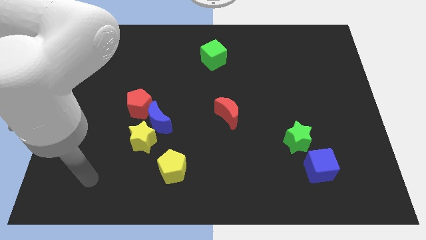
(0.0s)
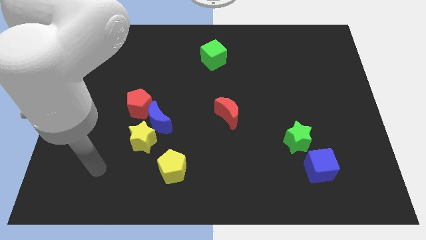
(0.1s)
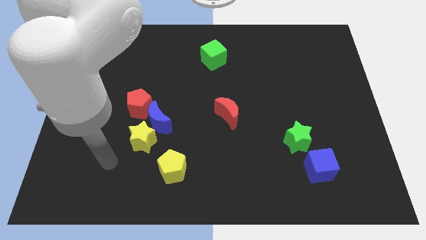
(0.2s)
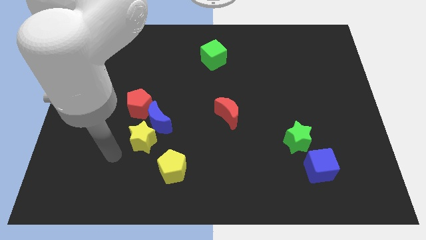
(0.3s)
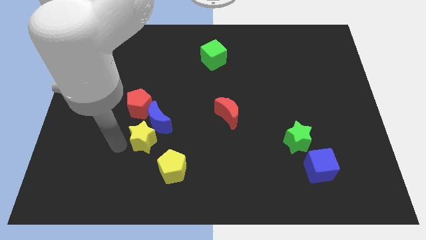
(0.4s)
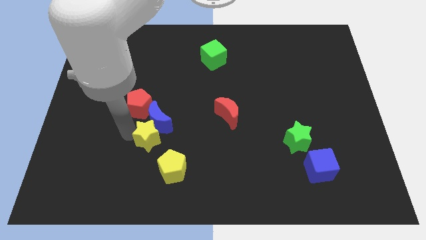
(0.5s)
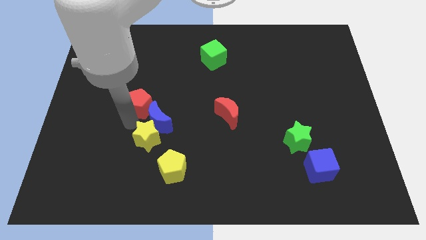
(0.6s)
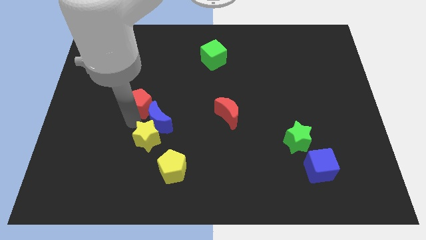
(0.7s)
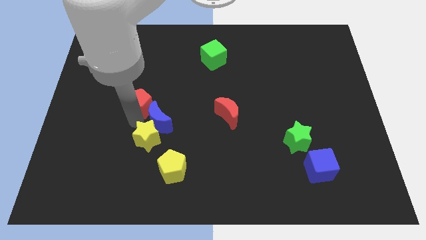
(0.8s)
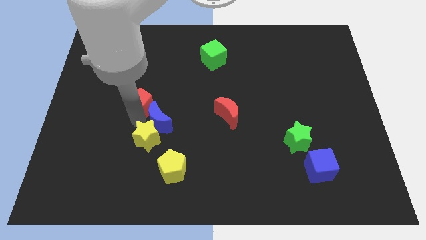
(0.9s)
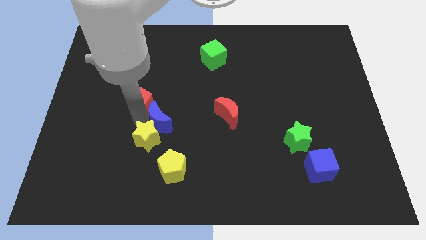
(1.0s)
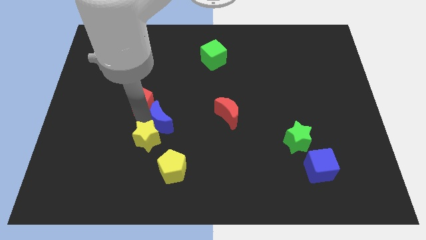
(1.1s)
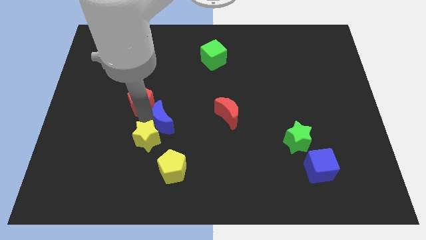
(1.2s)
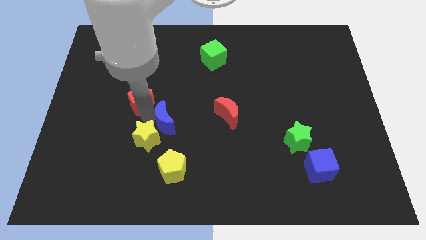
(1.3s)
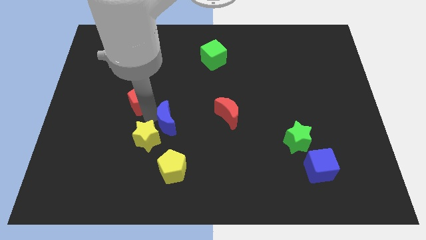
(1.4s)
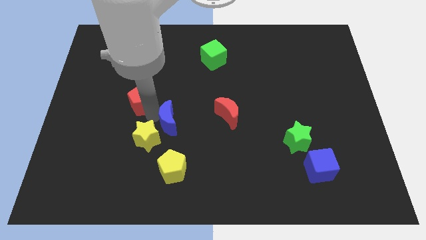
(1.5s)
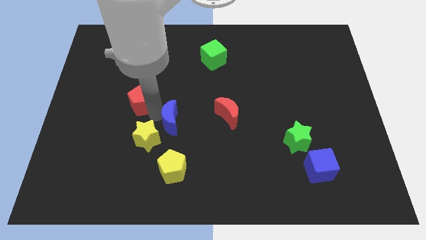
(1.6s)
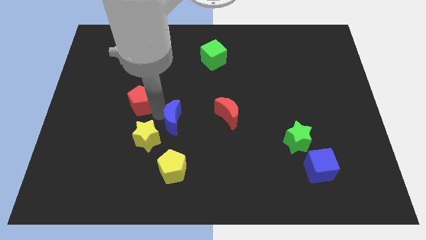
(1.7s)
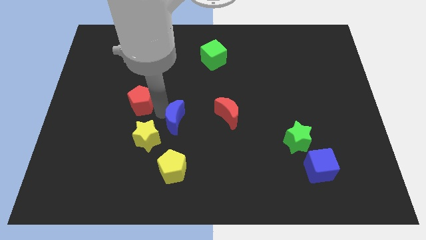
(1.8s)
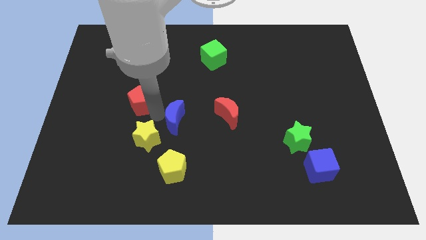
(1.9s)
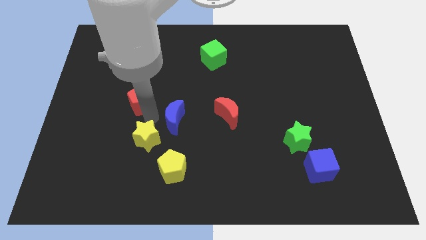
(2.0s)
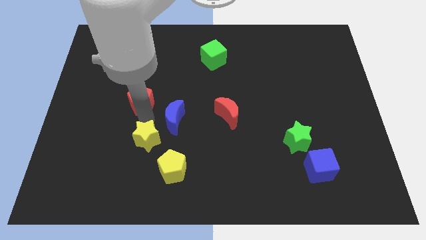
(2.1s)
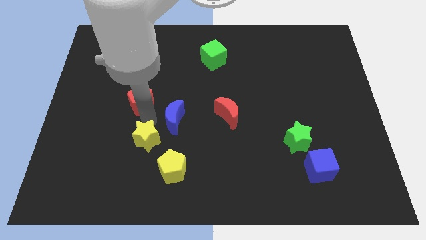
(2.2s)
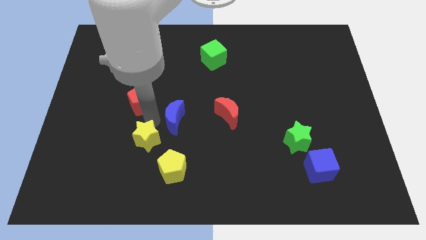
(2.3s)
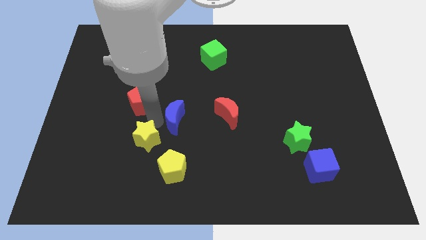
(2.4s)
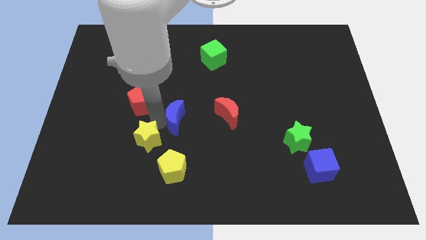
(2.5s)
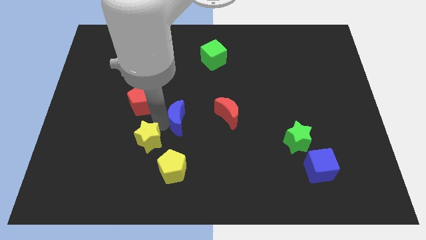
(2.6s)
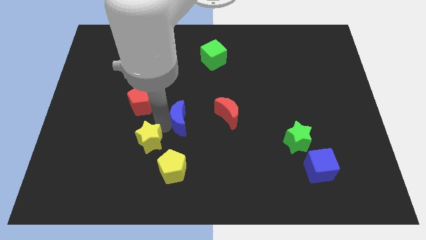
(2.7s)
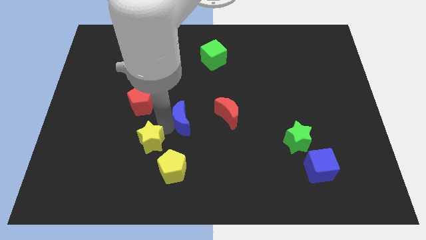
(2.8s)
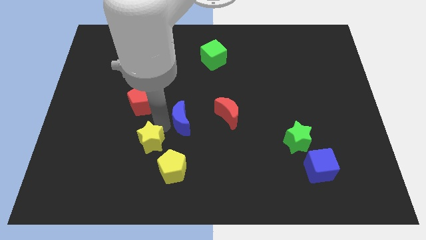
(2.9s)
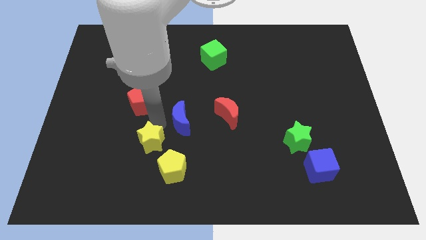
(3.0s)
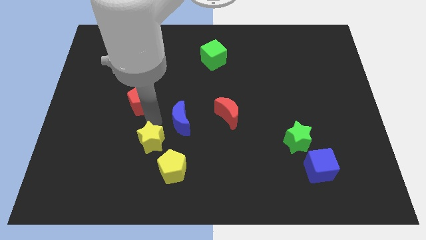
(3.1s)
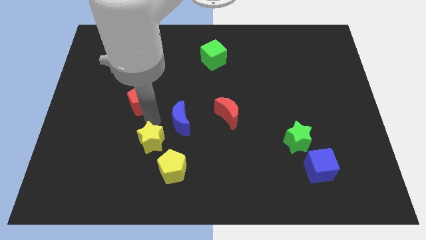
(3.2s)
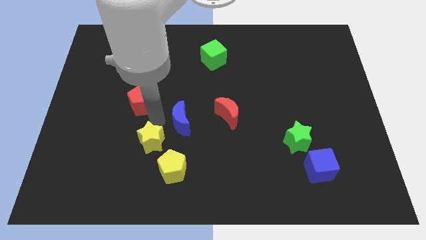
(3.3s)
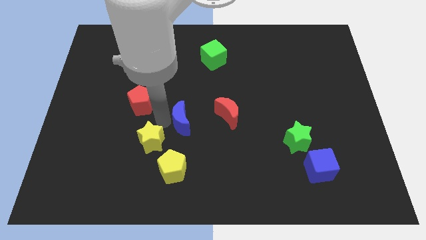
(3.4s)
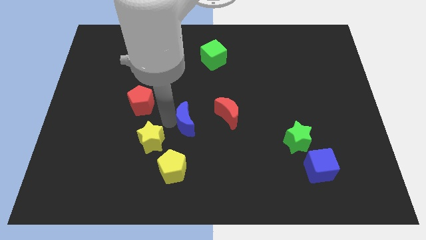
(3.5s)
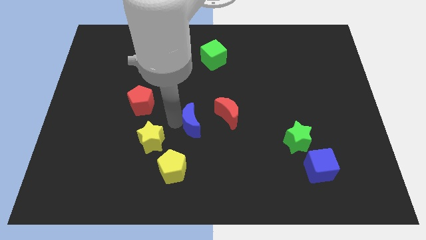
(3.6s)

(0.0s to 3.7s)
move the blue moon away from the yellow star and red pentagon

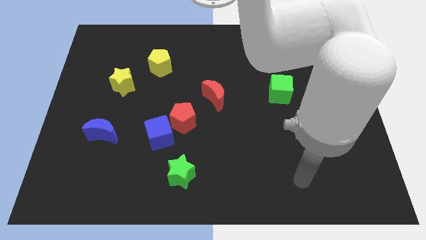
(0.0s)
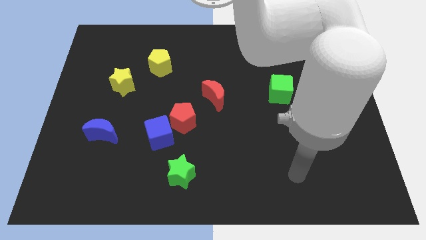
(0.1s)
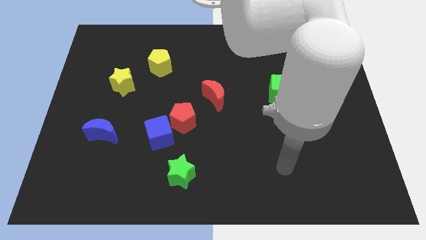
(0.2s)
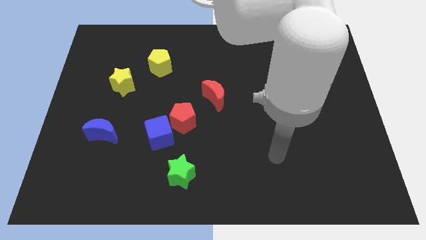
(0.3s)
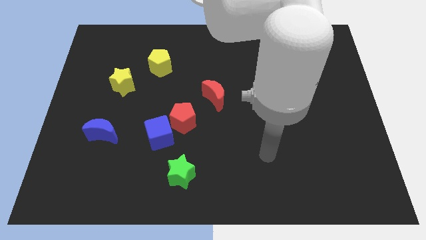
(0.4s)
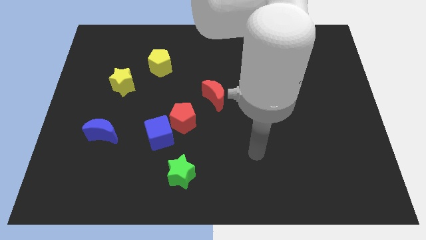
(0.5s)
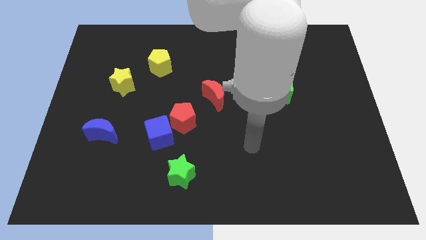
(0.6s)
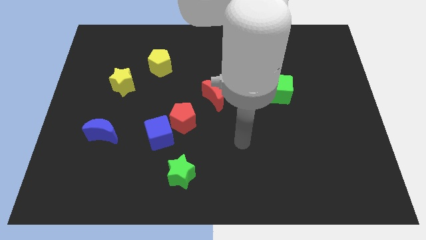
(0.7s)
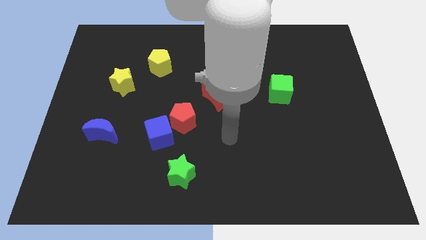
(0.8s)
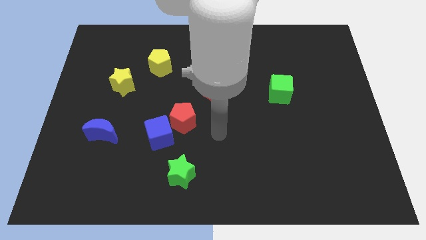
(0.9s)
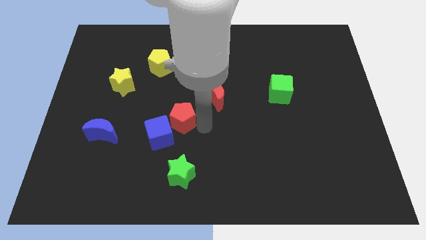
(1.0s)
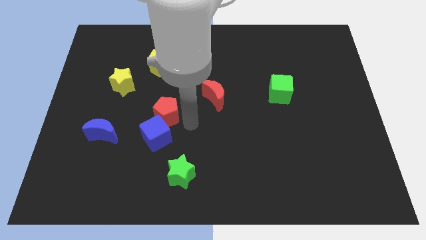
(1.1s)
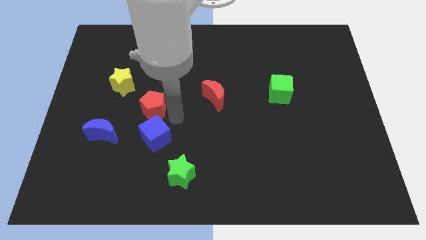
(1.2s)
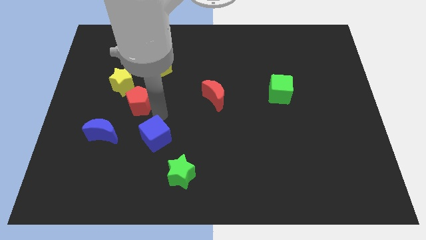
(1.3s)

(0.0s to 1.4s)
pull the blue cube apart from the red pentagon

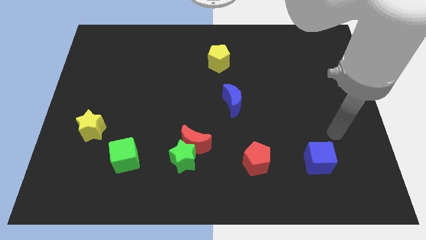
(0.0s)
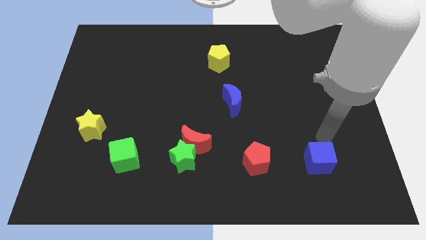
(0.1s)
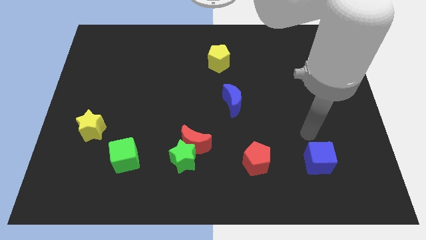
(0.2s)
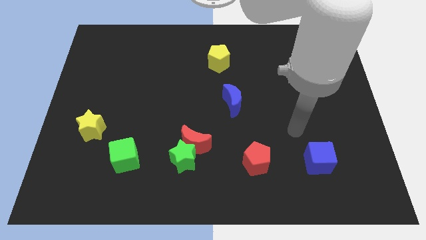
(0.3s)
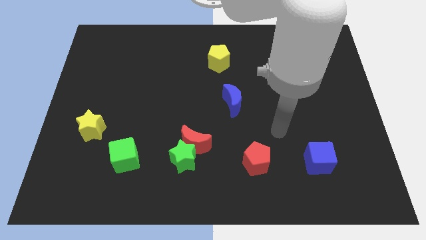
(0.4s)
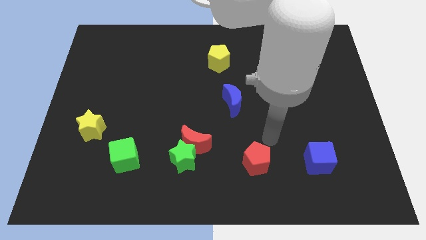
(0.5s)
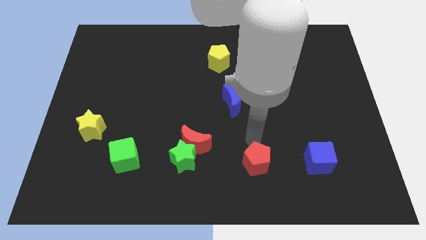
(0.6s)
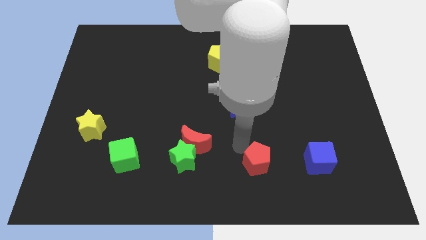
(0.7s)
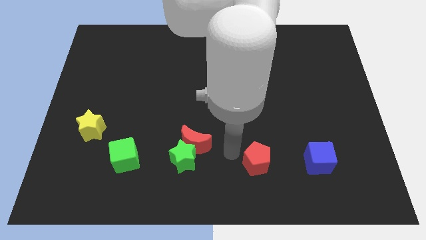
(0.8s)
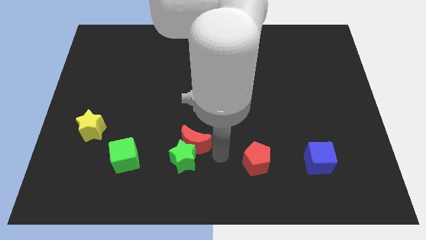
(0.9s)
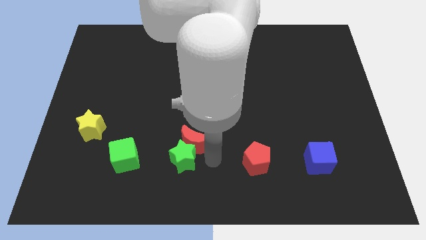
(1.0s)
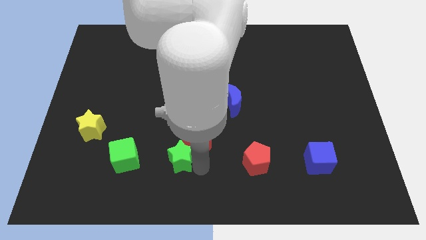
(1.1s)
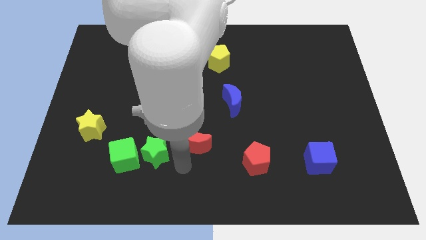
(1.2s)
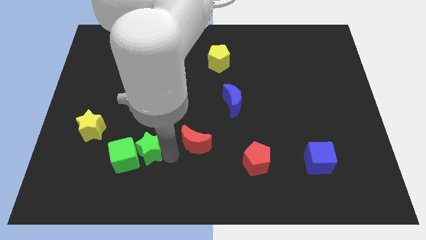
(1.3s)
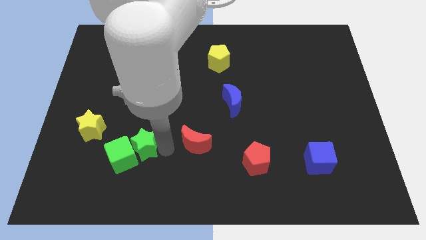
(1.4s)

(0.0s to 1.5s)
move the red moon away from the green star

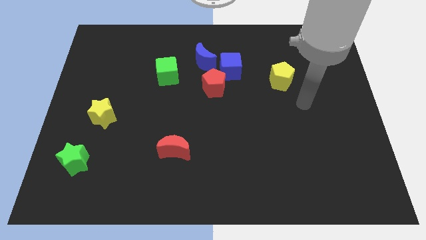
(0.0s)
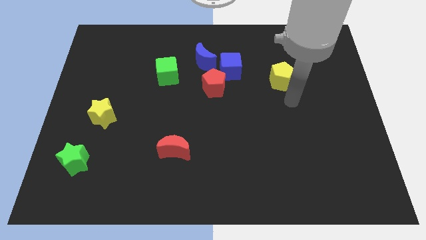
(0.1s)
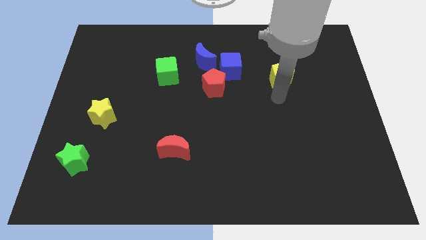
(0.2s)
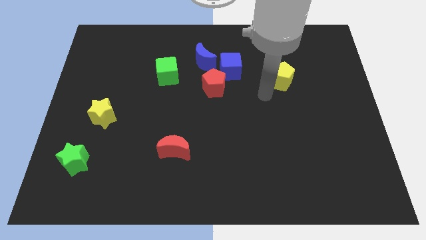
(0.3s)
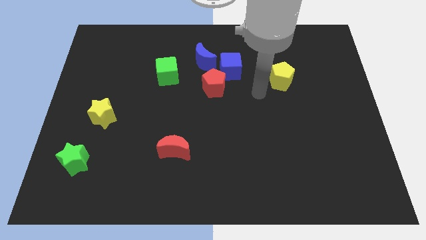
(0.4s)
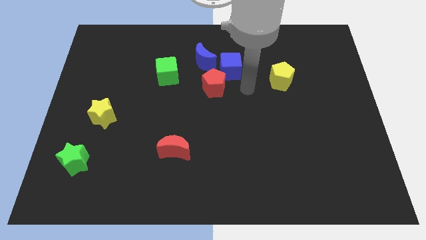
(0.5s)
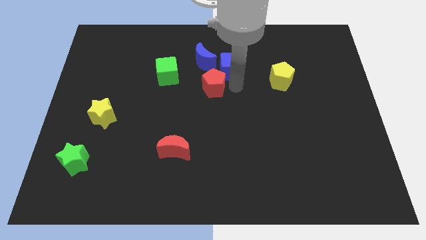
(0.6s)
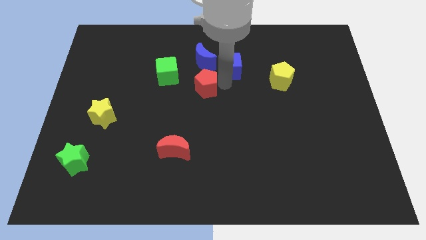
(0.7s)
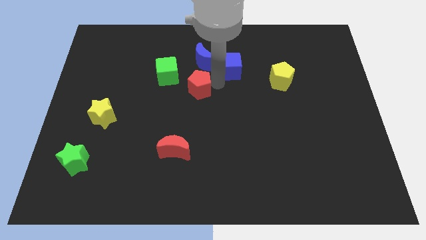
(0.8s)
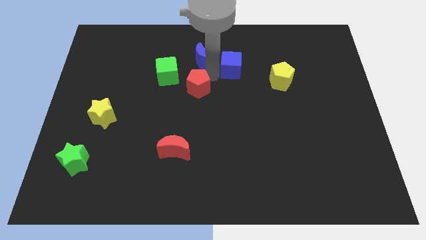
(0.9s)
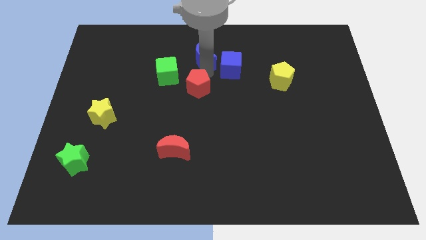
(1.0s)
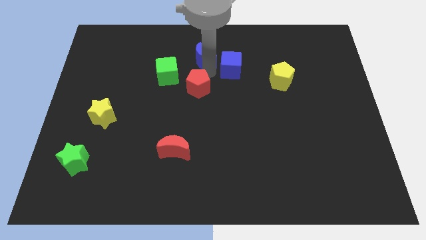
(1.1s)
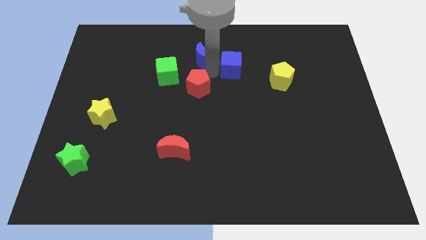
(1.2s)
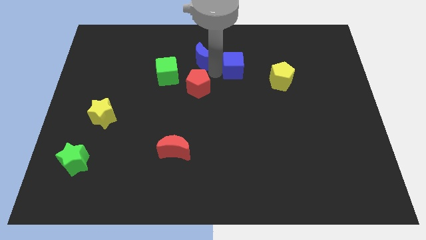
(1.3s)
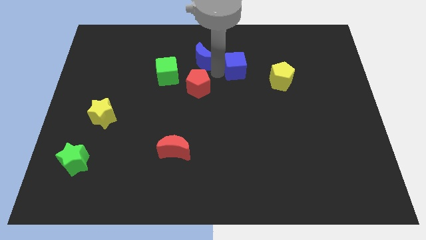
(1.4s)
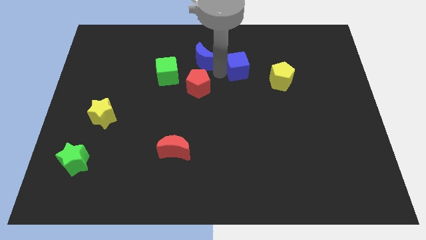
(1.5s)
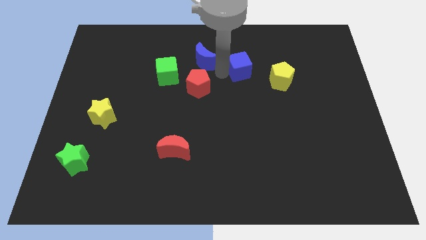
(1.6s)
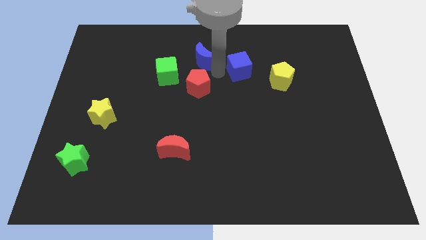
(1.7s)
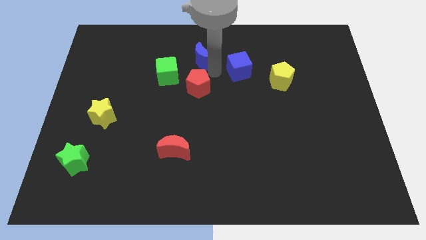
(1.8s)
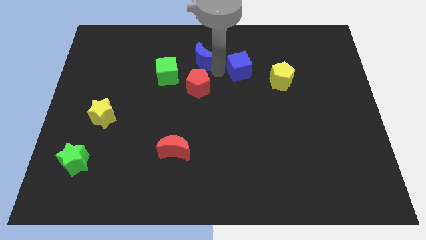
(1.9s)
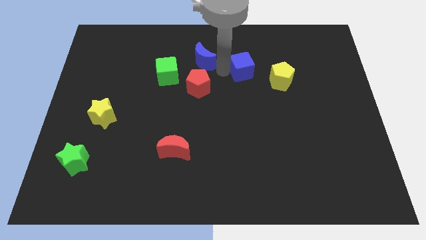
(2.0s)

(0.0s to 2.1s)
pull the blue cube apart from the red pentagon and blue moon

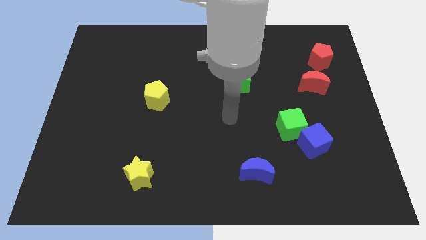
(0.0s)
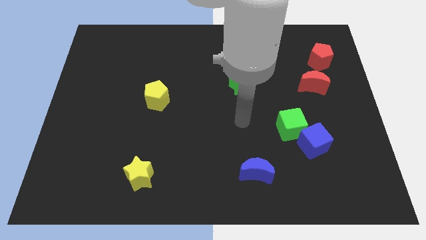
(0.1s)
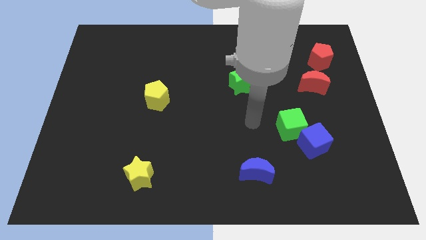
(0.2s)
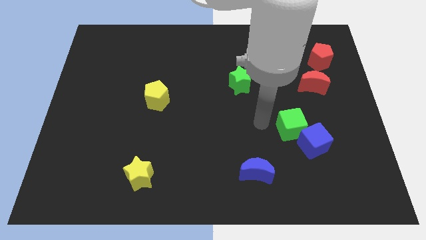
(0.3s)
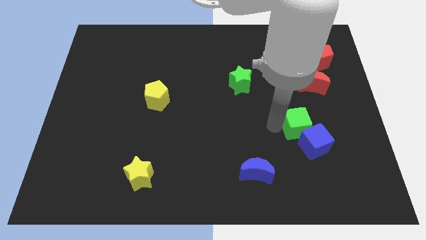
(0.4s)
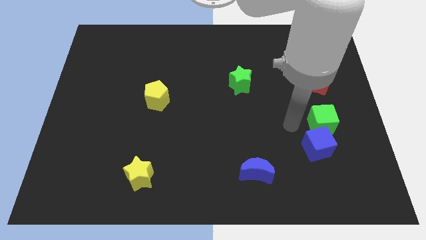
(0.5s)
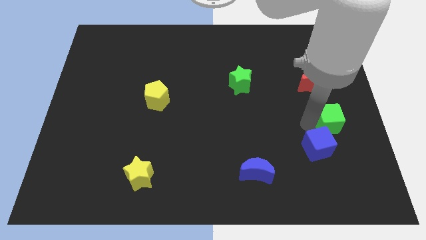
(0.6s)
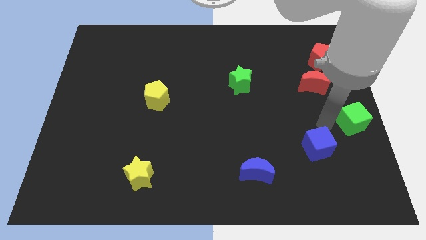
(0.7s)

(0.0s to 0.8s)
separate the blue cube from the green cube

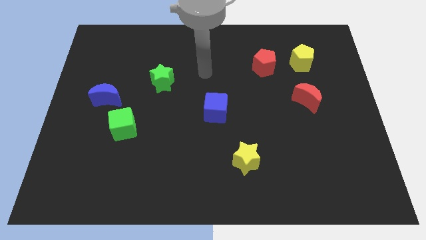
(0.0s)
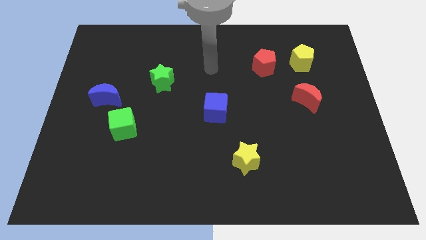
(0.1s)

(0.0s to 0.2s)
move the red pentagon away from the yellow pentagon
